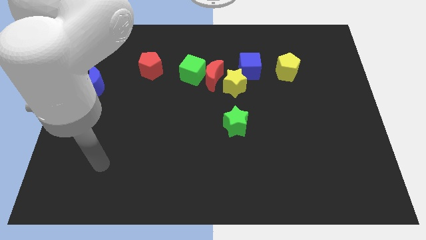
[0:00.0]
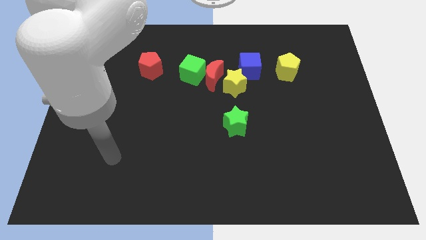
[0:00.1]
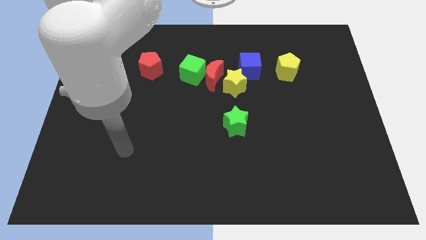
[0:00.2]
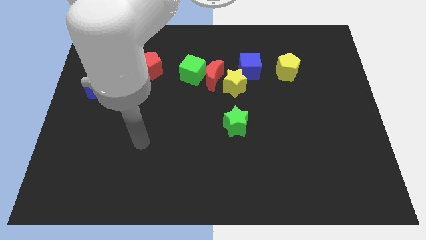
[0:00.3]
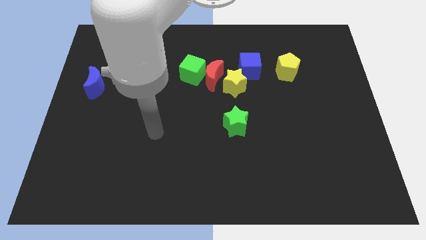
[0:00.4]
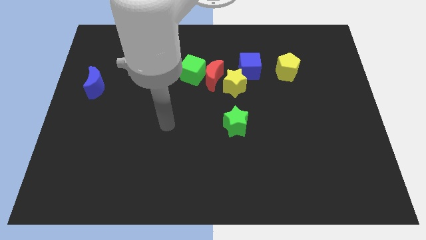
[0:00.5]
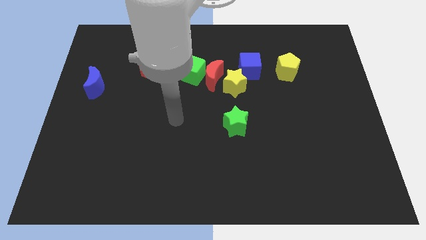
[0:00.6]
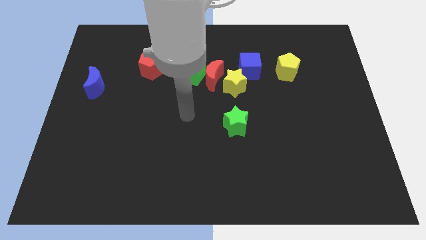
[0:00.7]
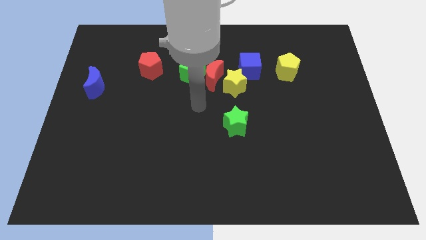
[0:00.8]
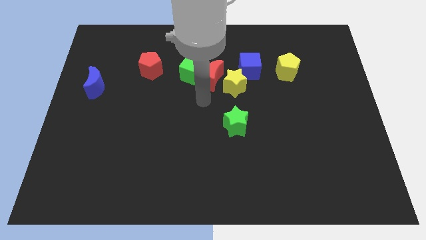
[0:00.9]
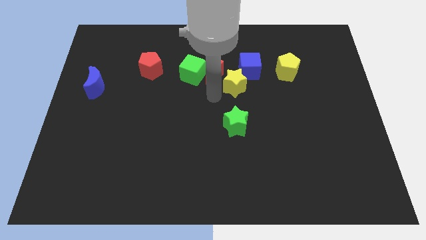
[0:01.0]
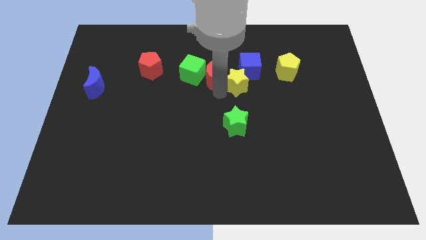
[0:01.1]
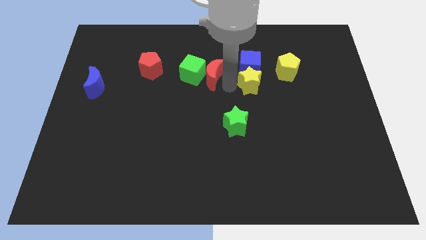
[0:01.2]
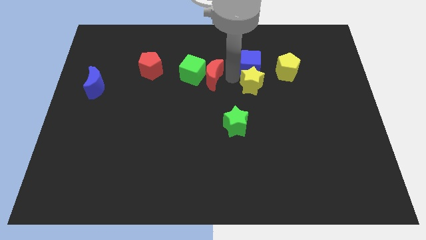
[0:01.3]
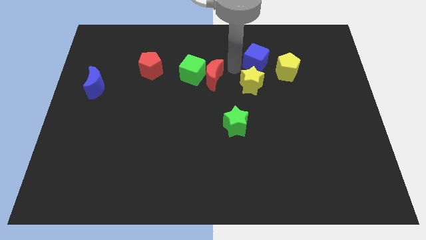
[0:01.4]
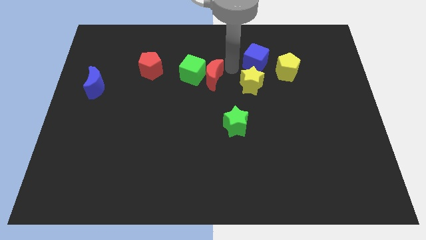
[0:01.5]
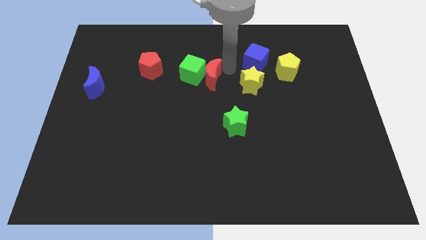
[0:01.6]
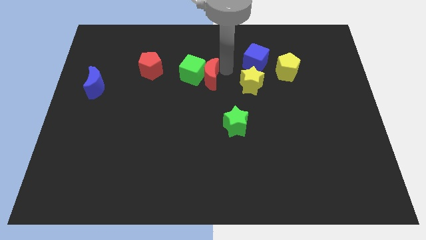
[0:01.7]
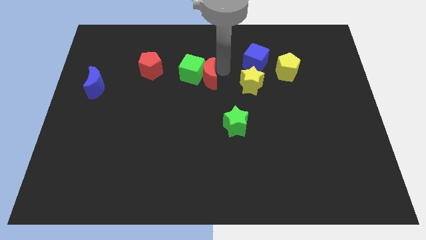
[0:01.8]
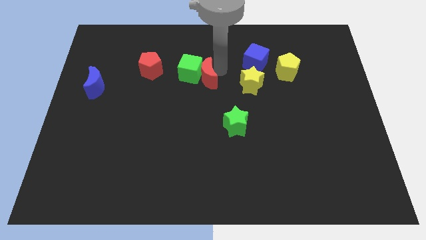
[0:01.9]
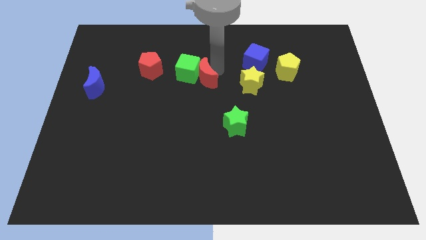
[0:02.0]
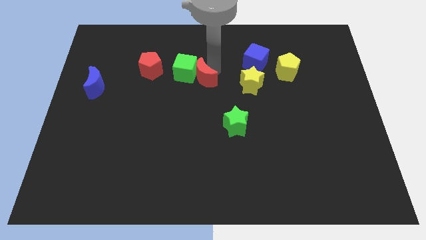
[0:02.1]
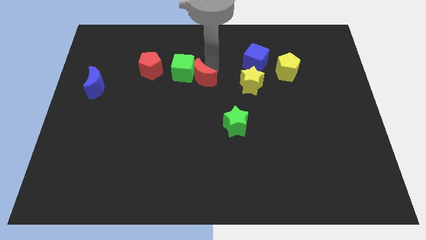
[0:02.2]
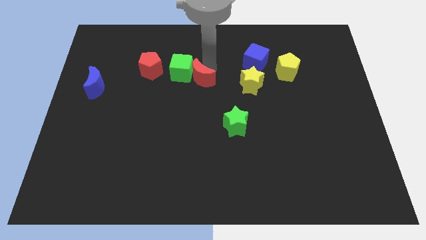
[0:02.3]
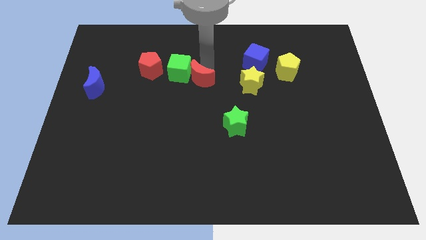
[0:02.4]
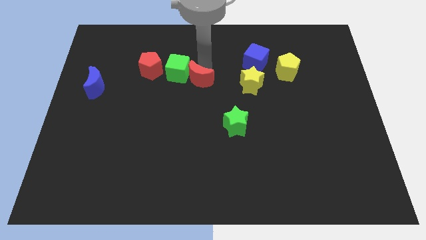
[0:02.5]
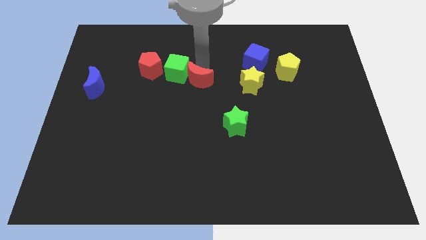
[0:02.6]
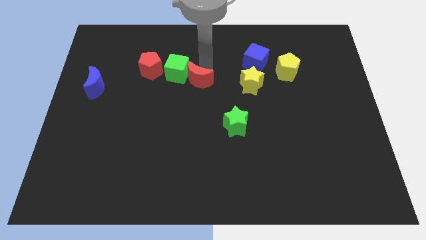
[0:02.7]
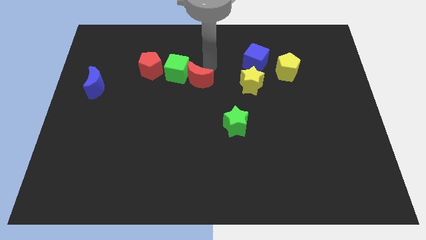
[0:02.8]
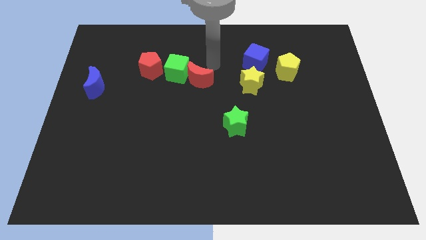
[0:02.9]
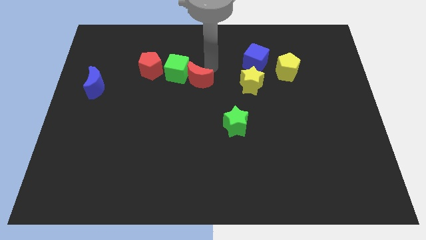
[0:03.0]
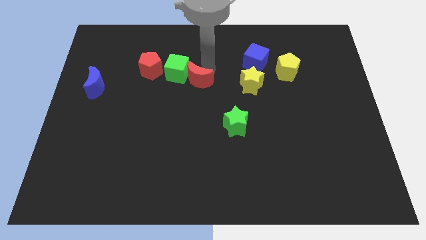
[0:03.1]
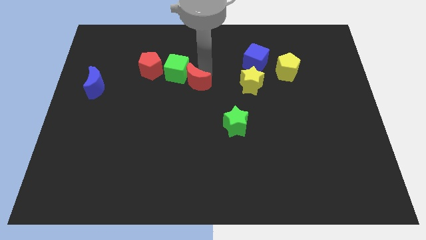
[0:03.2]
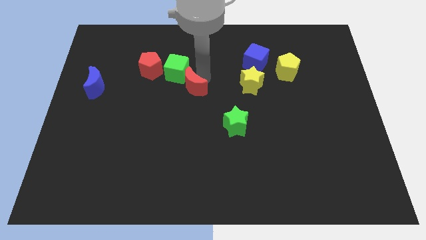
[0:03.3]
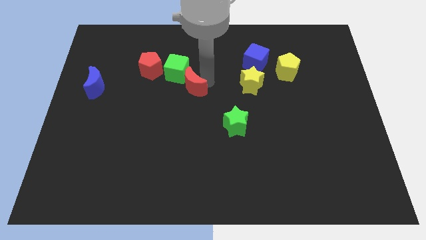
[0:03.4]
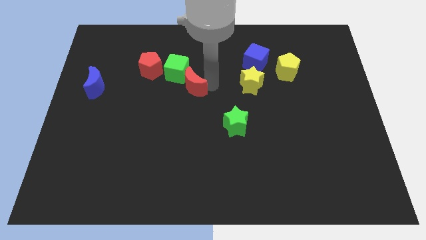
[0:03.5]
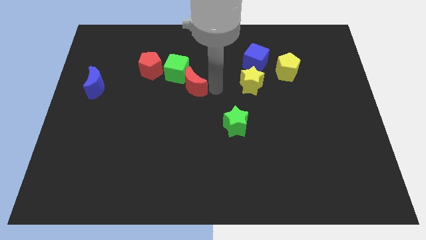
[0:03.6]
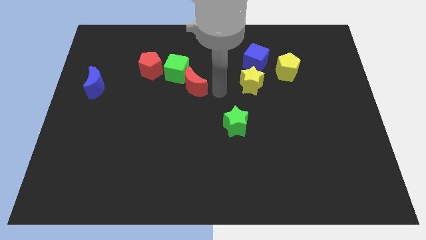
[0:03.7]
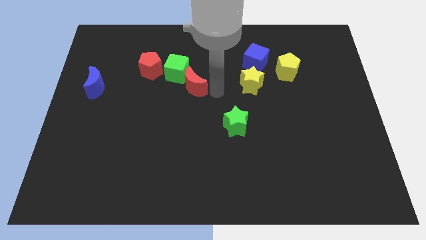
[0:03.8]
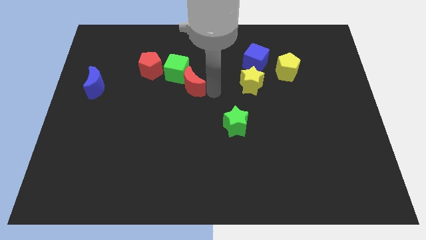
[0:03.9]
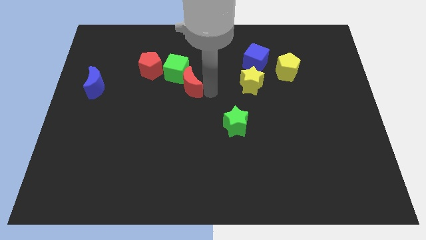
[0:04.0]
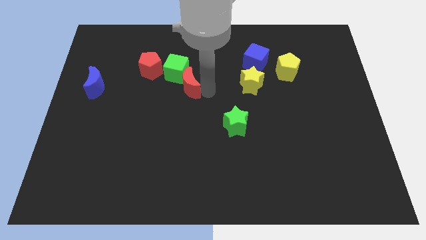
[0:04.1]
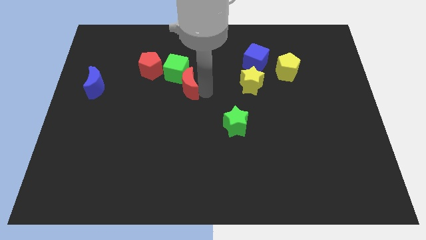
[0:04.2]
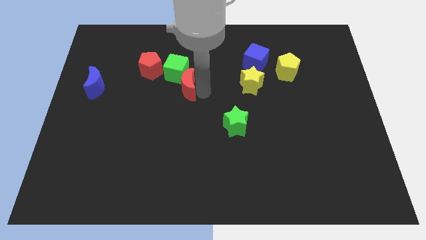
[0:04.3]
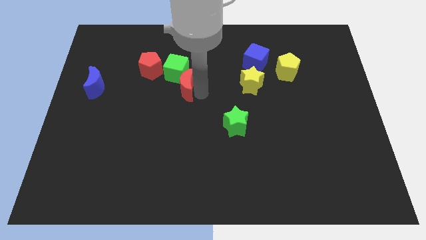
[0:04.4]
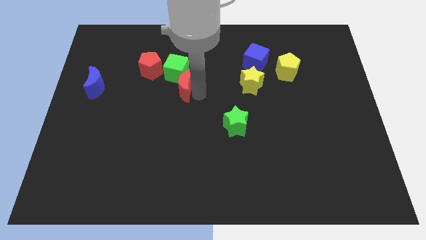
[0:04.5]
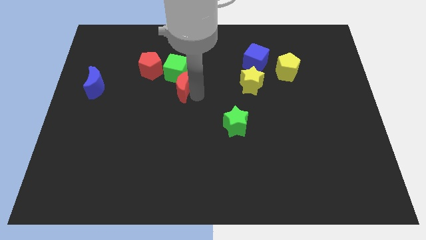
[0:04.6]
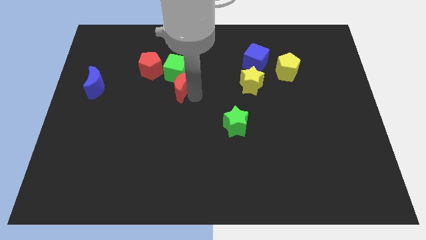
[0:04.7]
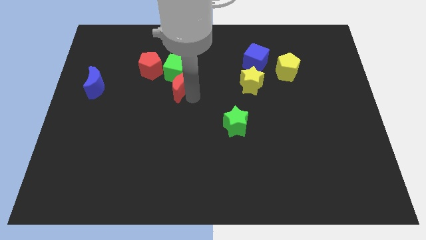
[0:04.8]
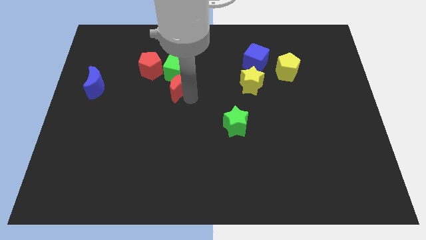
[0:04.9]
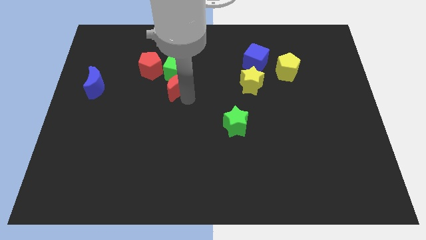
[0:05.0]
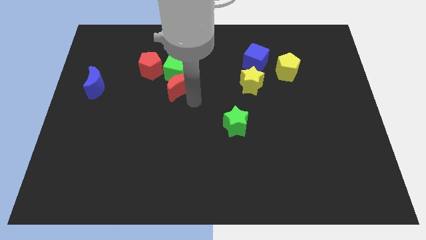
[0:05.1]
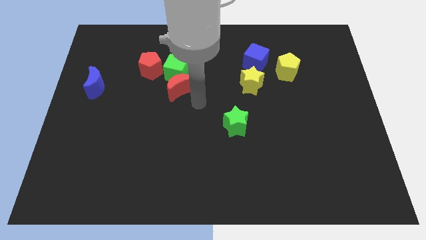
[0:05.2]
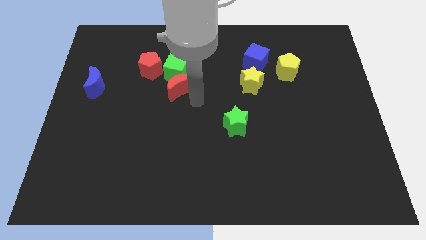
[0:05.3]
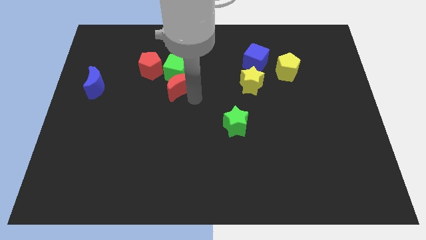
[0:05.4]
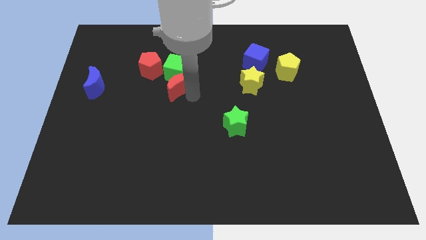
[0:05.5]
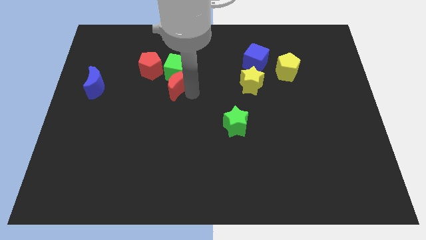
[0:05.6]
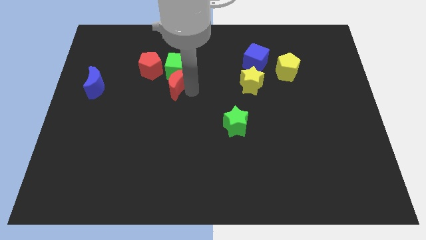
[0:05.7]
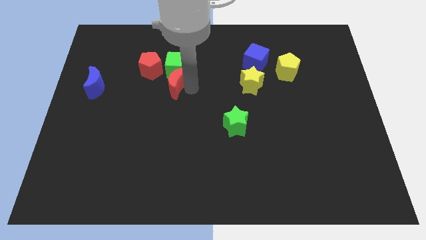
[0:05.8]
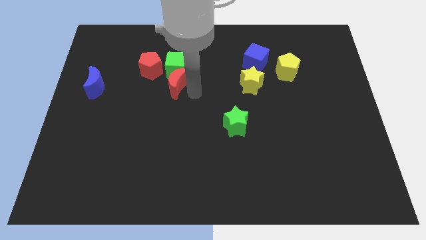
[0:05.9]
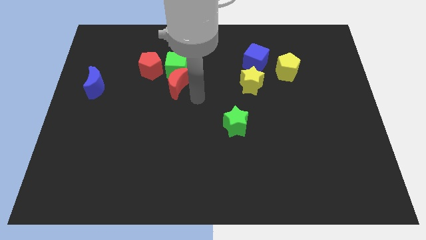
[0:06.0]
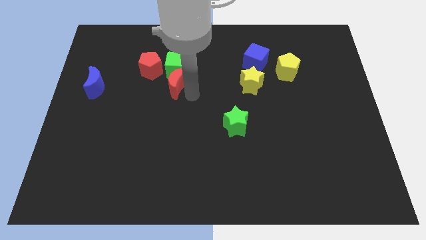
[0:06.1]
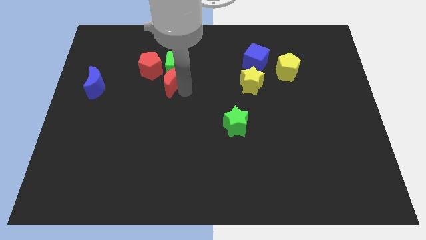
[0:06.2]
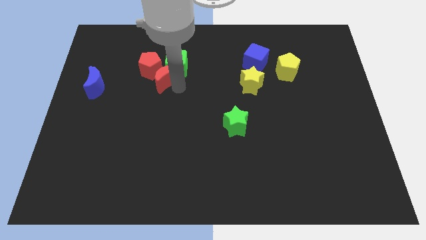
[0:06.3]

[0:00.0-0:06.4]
push the red moon next to the red pentagon

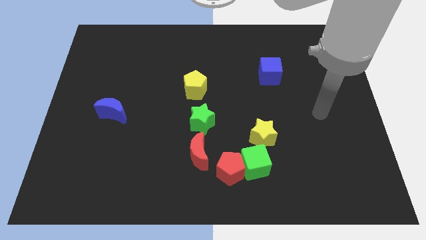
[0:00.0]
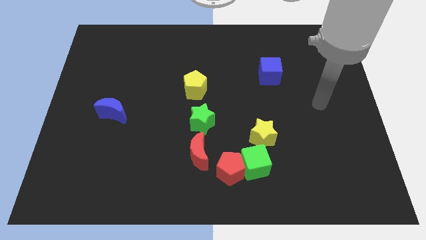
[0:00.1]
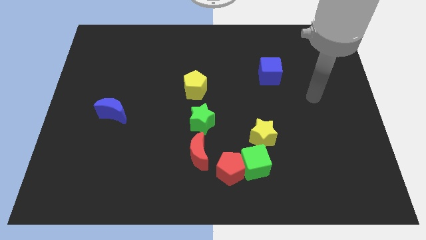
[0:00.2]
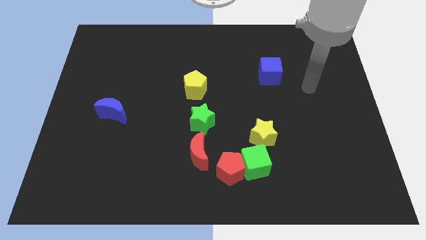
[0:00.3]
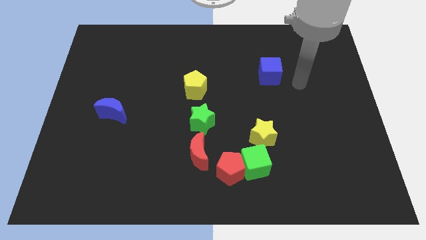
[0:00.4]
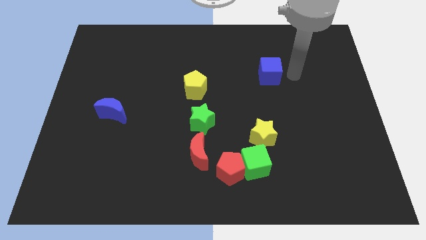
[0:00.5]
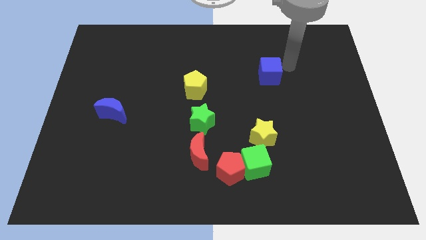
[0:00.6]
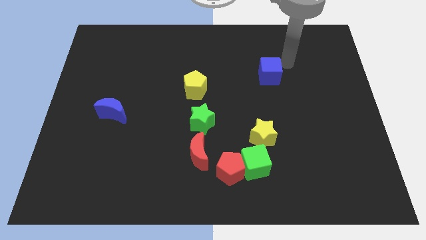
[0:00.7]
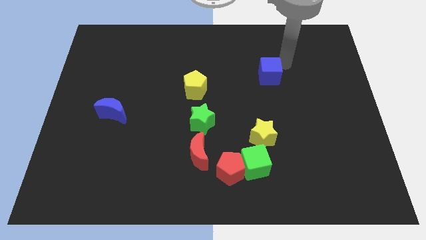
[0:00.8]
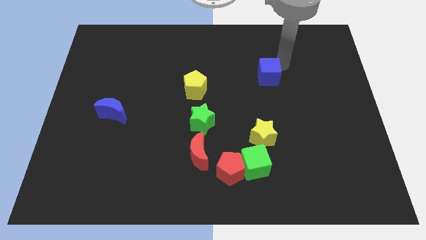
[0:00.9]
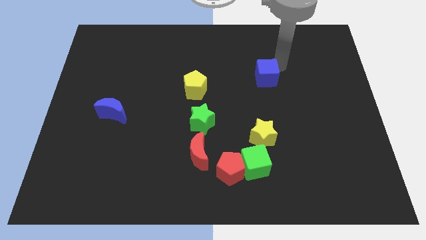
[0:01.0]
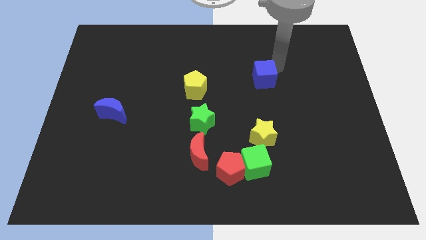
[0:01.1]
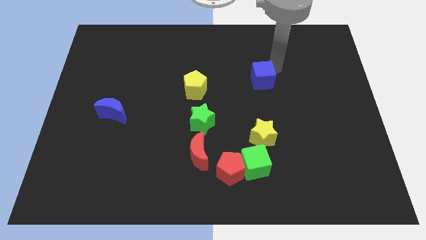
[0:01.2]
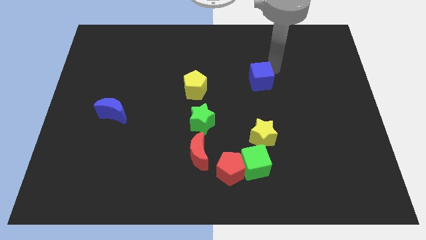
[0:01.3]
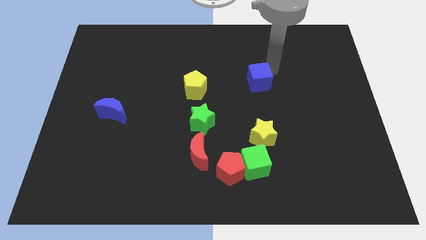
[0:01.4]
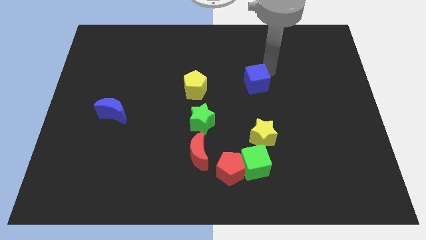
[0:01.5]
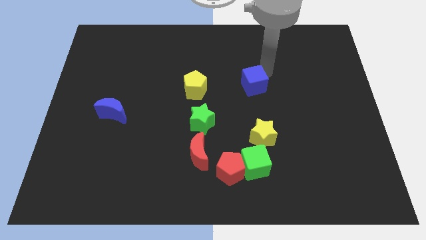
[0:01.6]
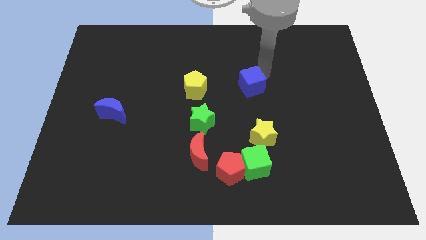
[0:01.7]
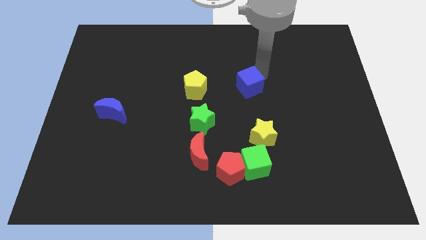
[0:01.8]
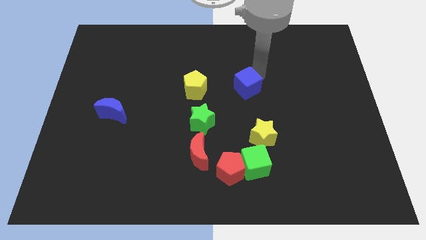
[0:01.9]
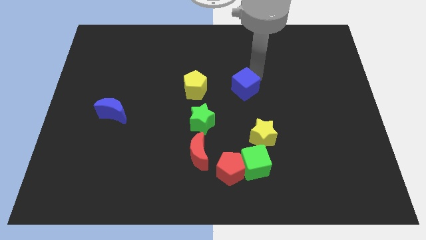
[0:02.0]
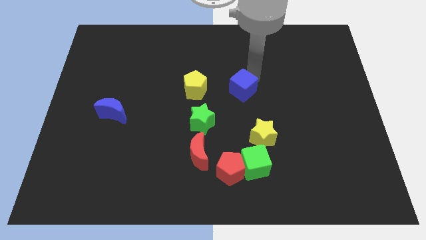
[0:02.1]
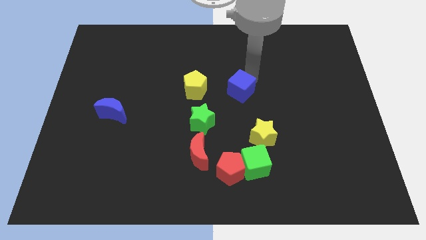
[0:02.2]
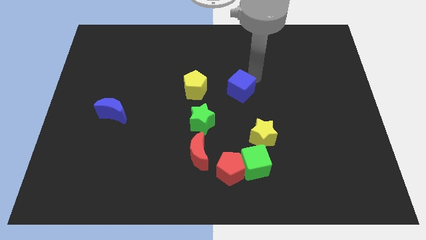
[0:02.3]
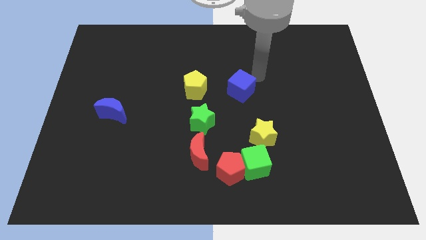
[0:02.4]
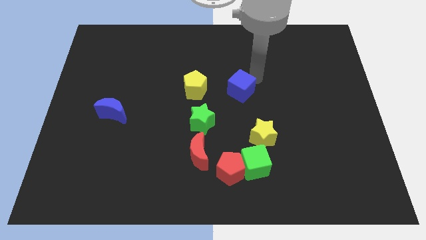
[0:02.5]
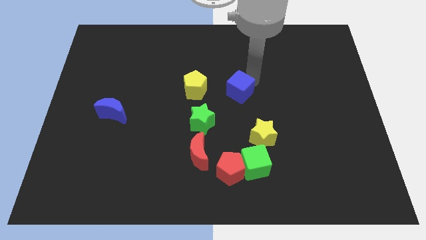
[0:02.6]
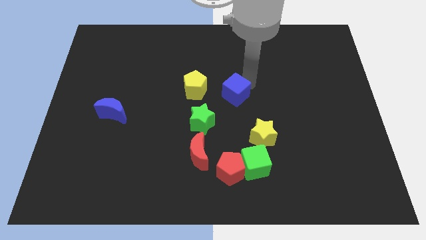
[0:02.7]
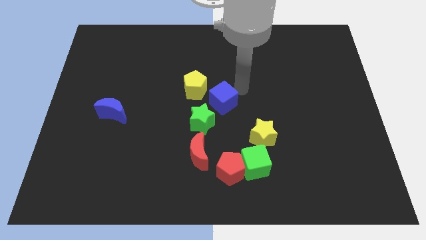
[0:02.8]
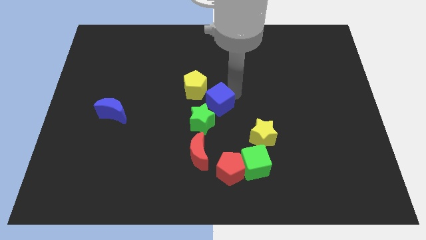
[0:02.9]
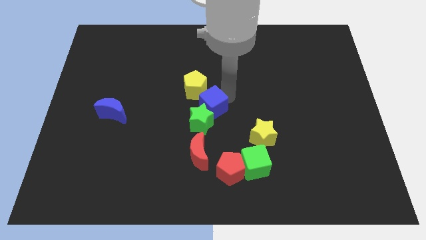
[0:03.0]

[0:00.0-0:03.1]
slide the blue cube close to the green star
